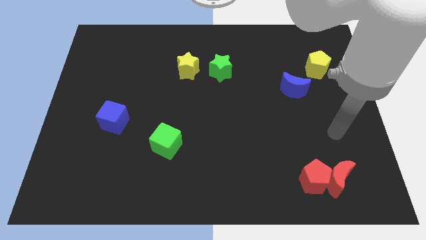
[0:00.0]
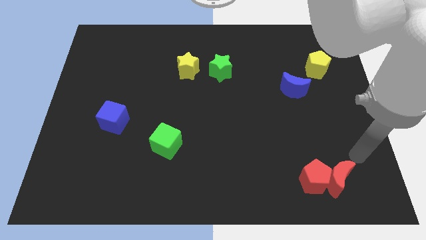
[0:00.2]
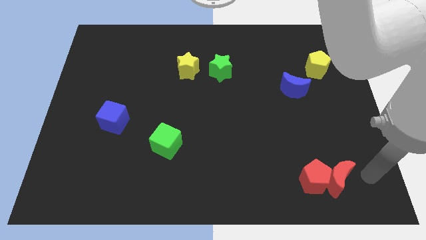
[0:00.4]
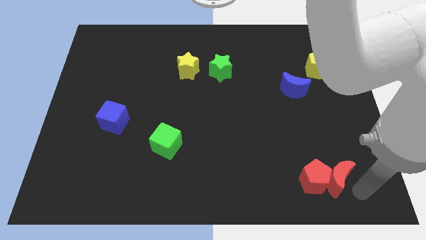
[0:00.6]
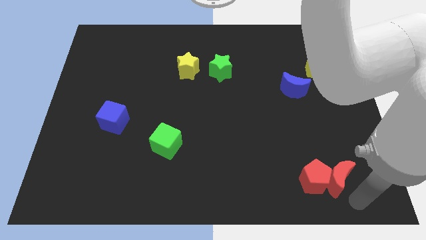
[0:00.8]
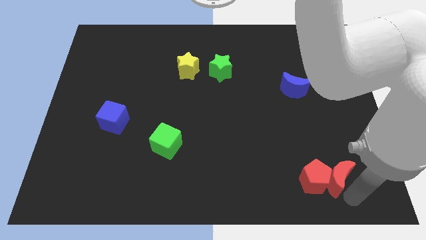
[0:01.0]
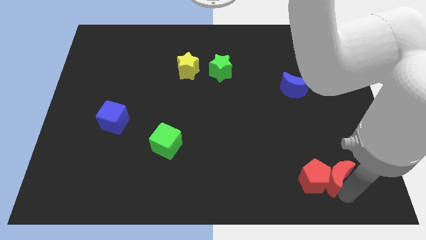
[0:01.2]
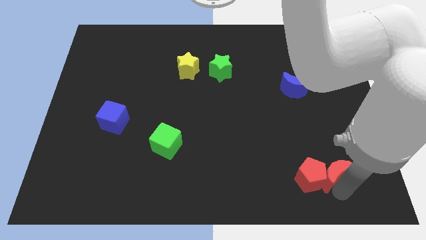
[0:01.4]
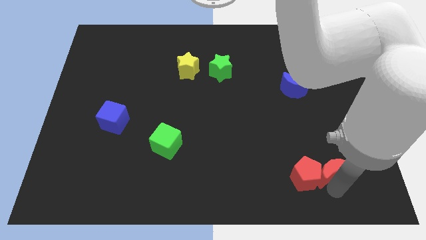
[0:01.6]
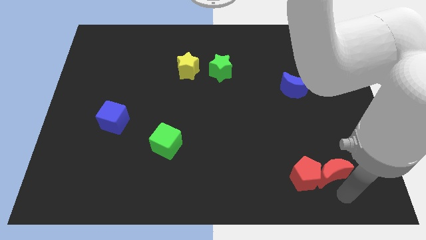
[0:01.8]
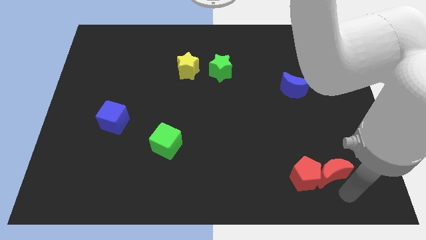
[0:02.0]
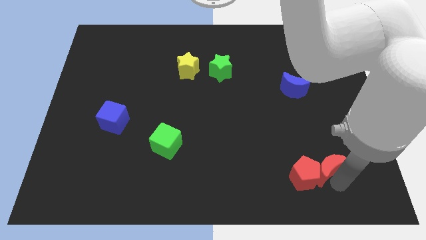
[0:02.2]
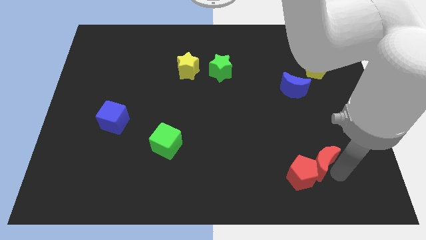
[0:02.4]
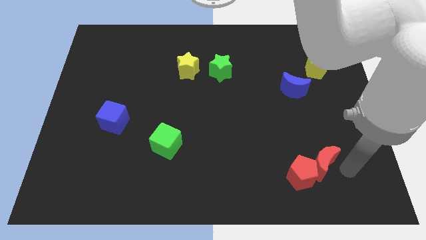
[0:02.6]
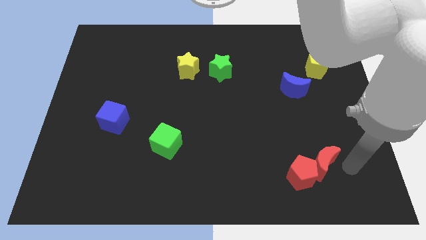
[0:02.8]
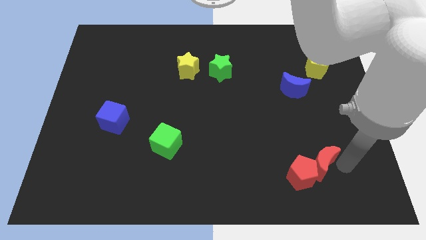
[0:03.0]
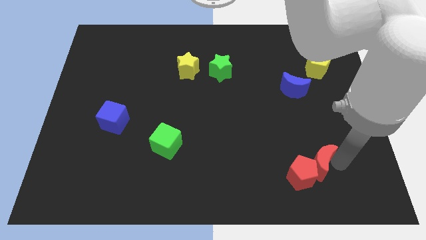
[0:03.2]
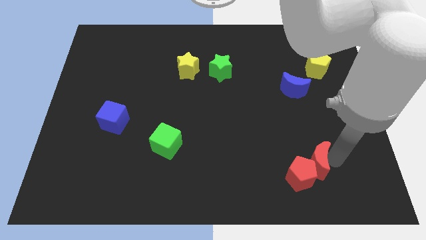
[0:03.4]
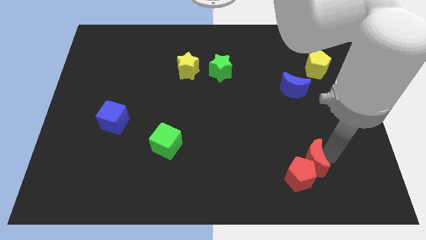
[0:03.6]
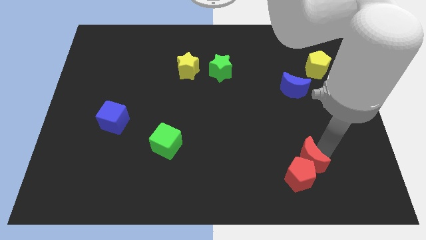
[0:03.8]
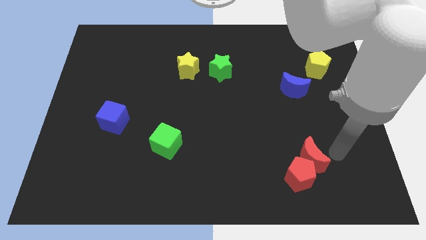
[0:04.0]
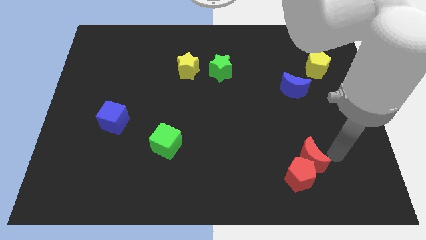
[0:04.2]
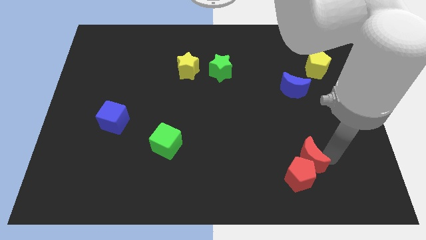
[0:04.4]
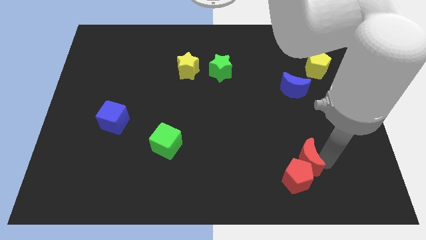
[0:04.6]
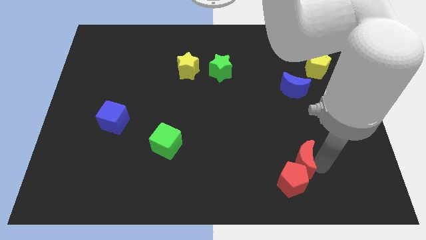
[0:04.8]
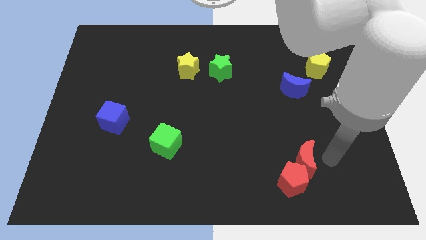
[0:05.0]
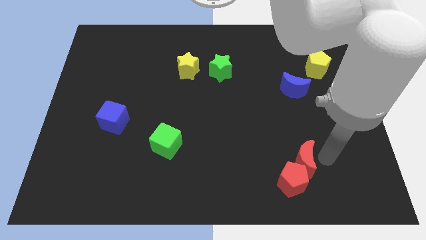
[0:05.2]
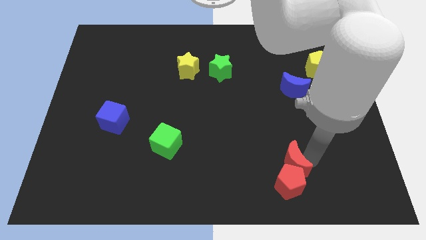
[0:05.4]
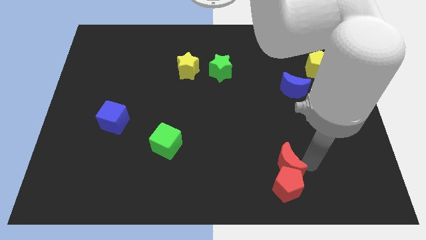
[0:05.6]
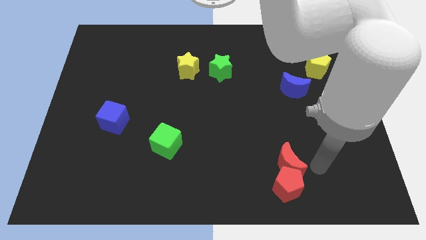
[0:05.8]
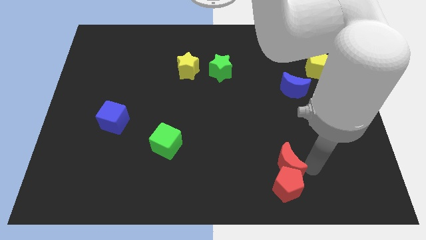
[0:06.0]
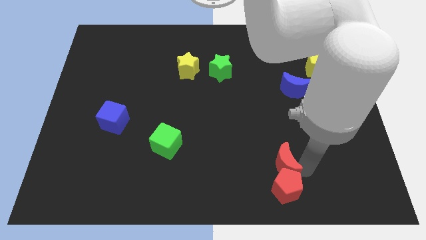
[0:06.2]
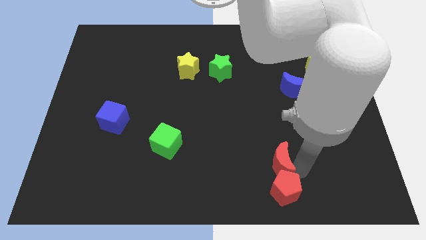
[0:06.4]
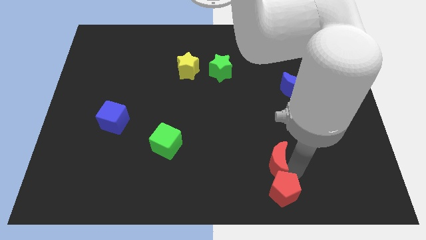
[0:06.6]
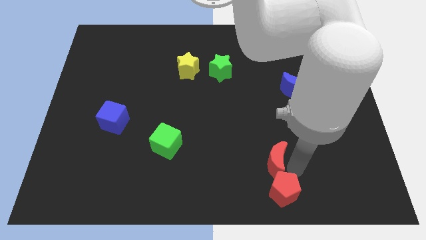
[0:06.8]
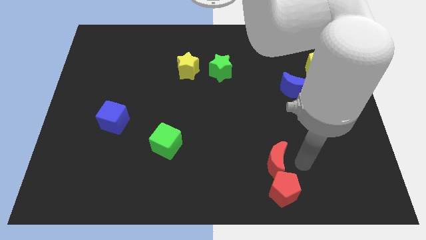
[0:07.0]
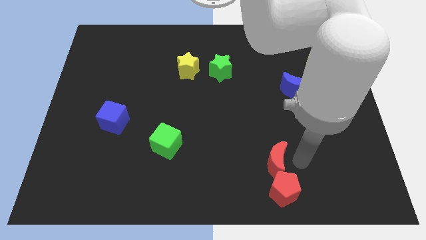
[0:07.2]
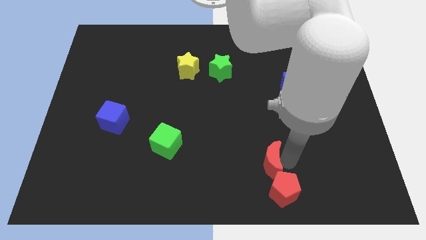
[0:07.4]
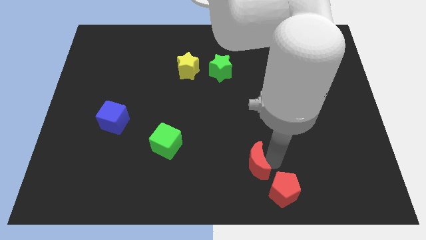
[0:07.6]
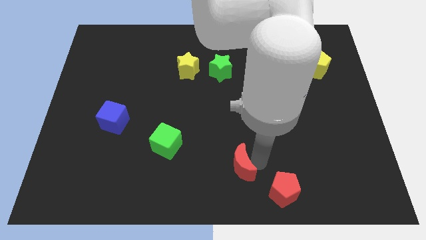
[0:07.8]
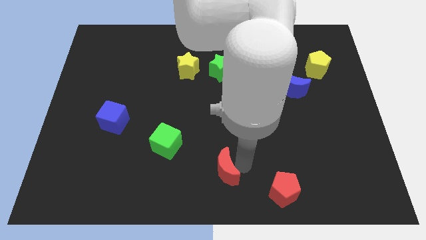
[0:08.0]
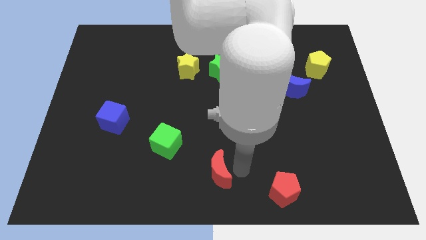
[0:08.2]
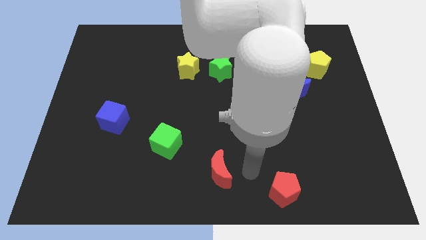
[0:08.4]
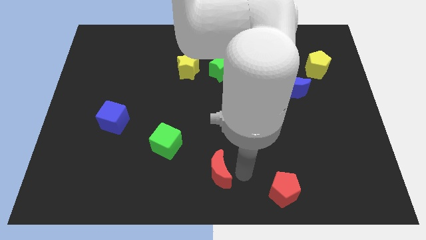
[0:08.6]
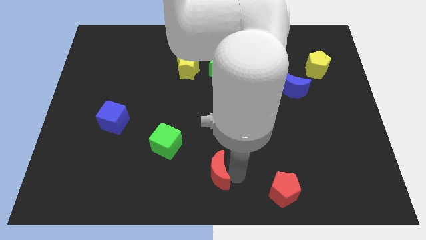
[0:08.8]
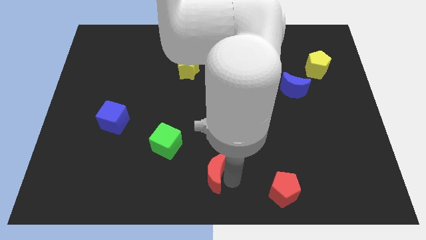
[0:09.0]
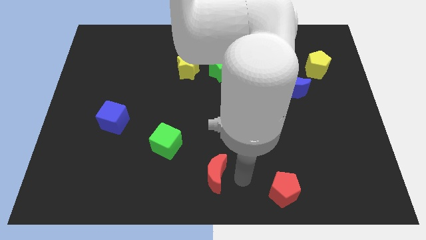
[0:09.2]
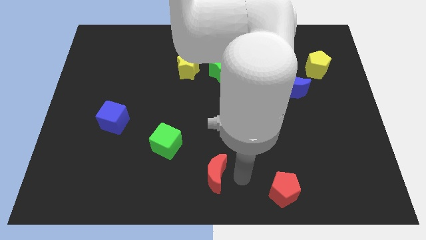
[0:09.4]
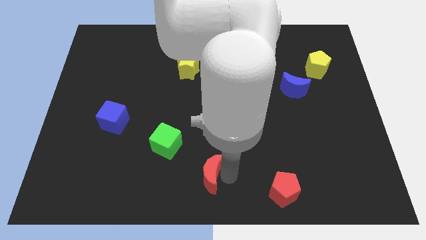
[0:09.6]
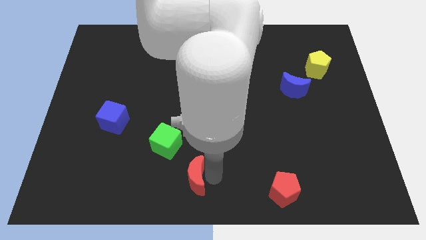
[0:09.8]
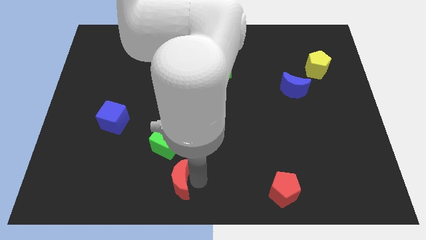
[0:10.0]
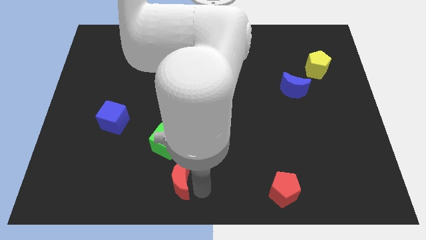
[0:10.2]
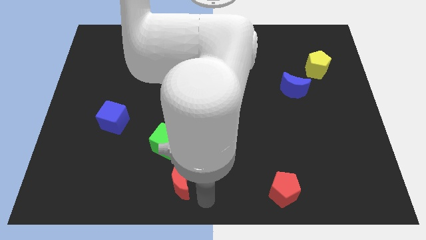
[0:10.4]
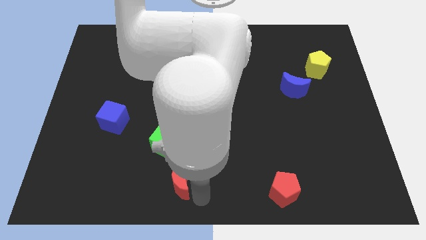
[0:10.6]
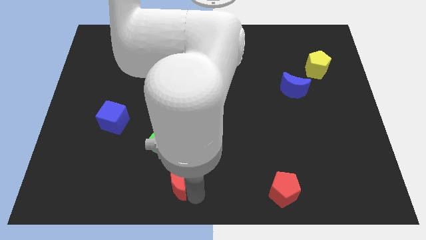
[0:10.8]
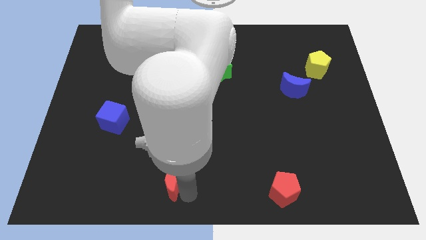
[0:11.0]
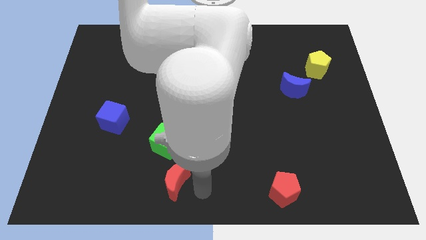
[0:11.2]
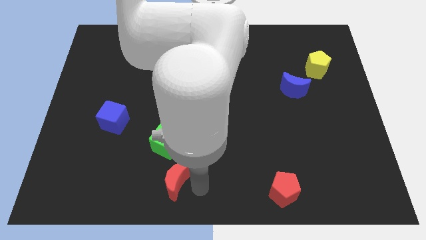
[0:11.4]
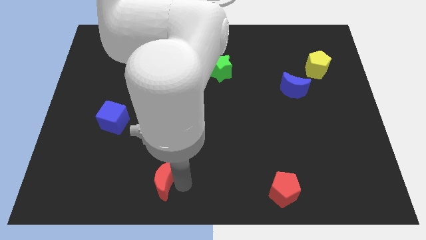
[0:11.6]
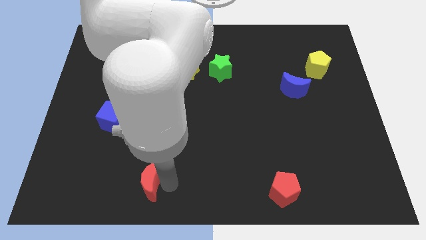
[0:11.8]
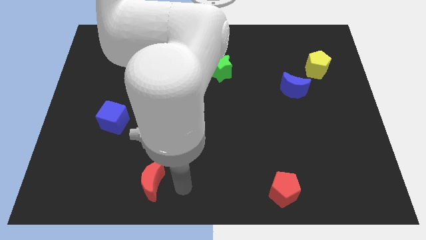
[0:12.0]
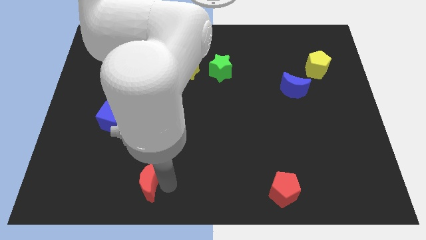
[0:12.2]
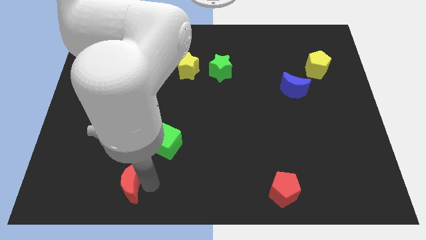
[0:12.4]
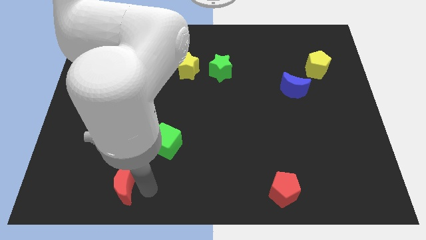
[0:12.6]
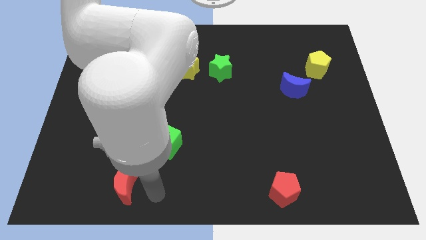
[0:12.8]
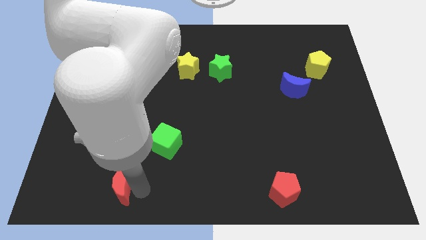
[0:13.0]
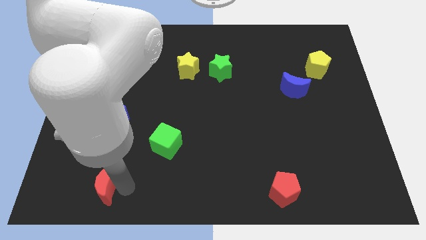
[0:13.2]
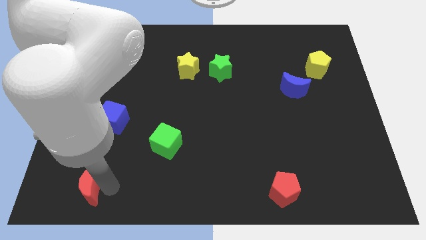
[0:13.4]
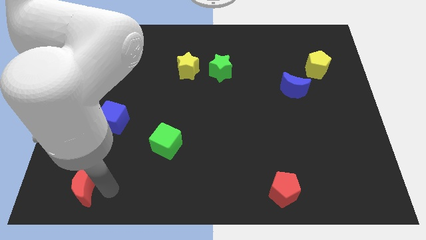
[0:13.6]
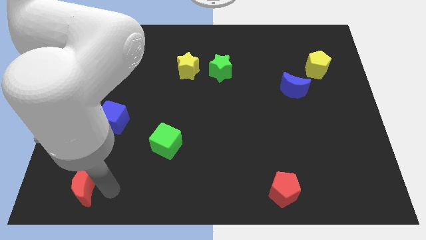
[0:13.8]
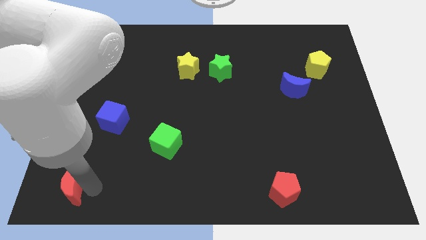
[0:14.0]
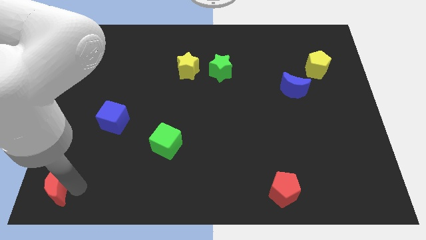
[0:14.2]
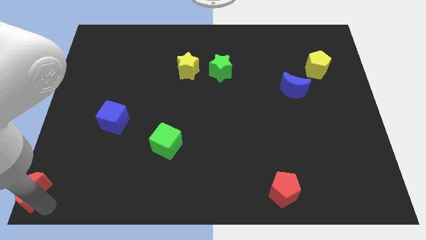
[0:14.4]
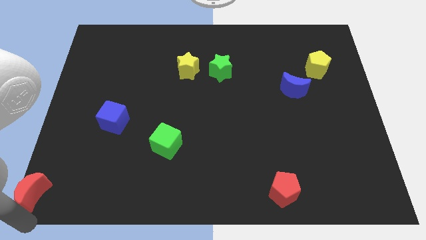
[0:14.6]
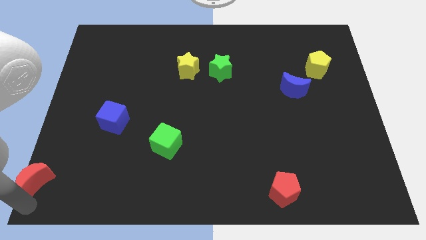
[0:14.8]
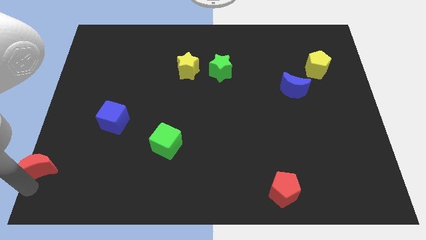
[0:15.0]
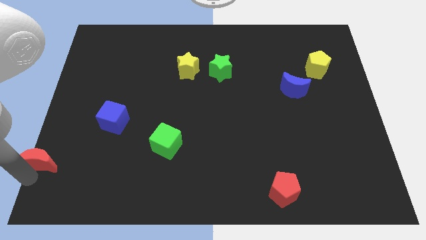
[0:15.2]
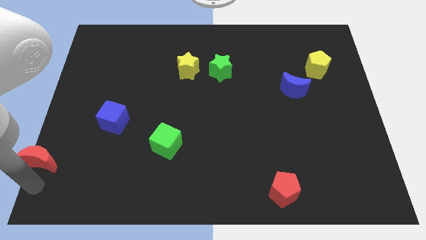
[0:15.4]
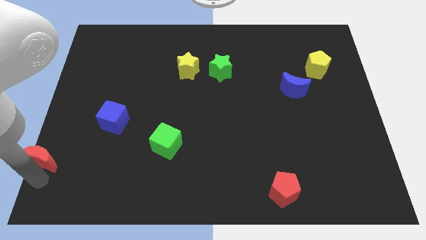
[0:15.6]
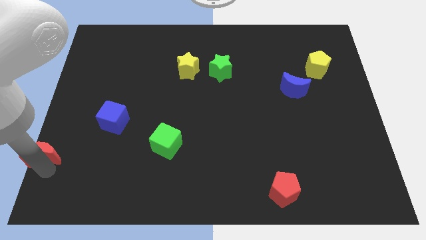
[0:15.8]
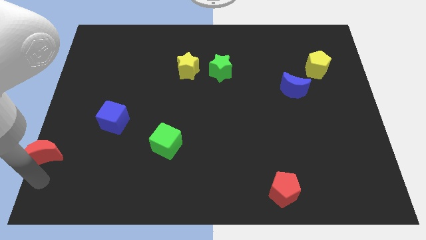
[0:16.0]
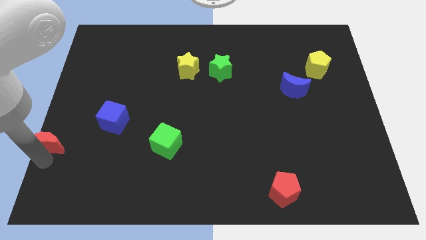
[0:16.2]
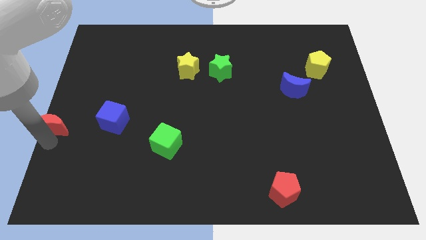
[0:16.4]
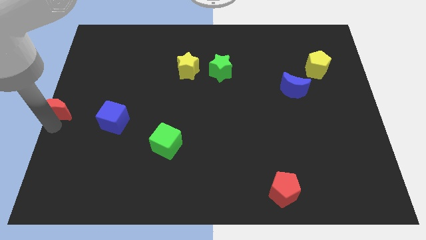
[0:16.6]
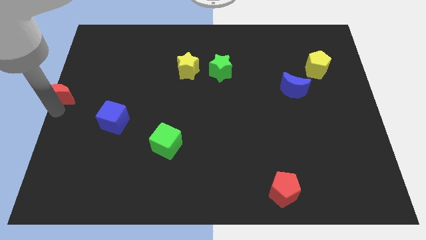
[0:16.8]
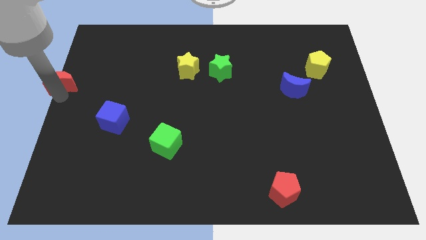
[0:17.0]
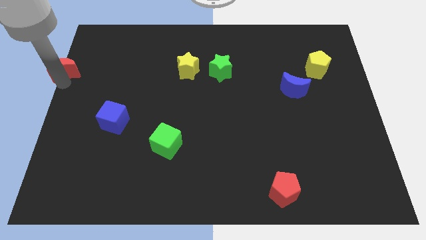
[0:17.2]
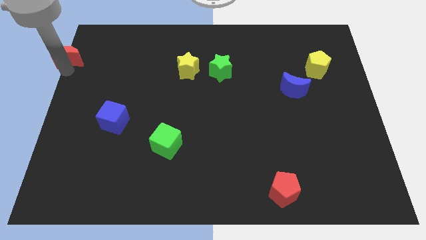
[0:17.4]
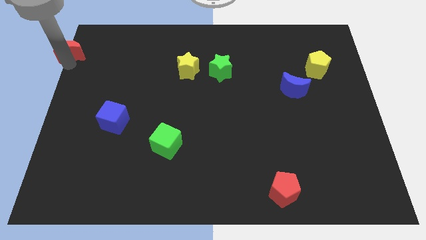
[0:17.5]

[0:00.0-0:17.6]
put the red moon to the top left of the board
